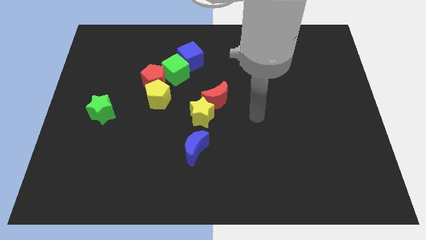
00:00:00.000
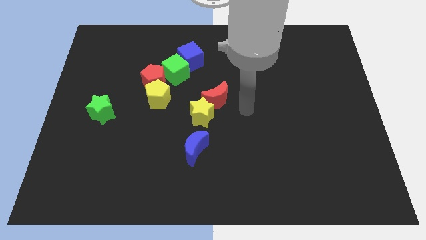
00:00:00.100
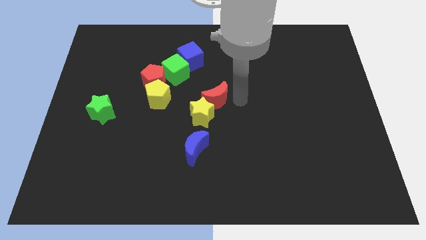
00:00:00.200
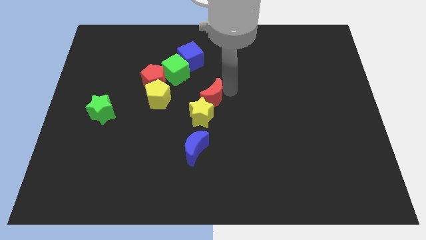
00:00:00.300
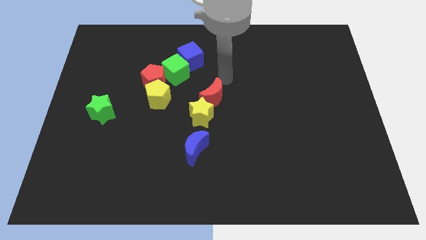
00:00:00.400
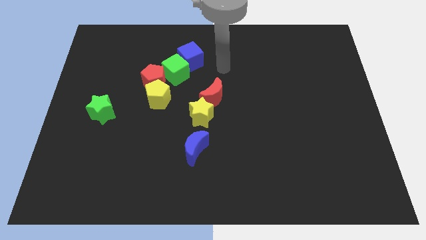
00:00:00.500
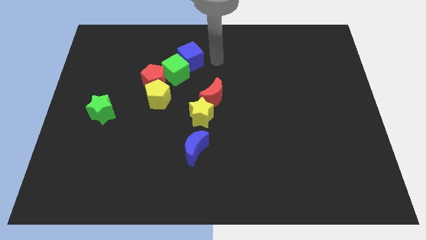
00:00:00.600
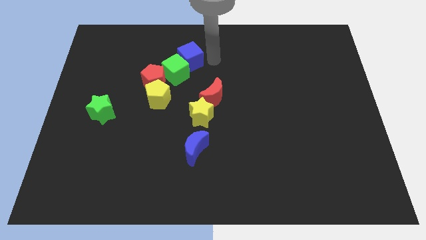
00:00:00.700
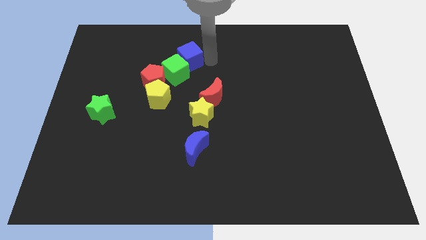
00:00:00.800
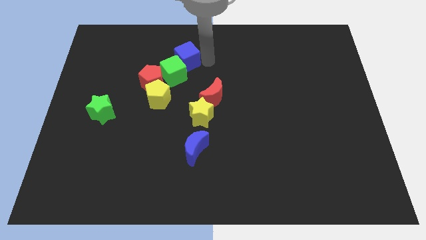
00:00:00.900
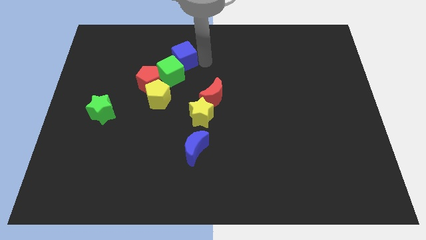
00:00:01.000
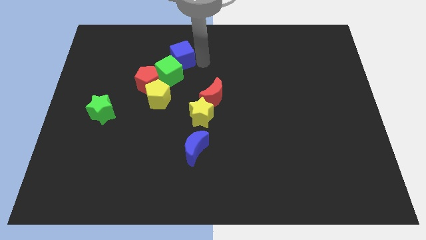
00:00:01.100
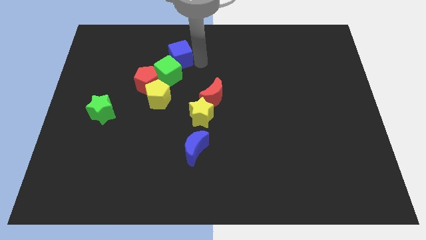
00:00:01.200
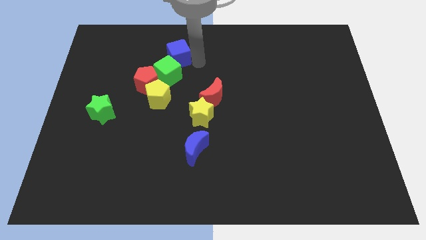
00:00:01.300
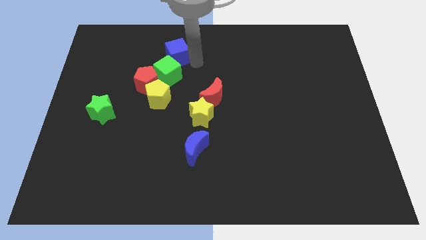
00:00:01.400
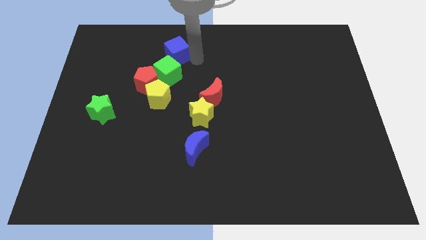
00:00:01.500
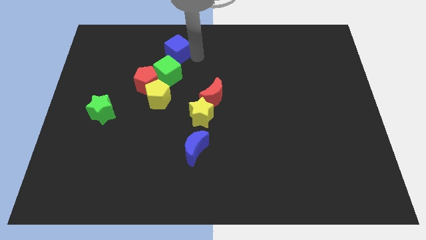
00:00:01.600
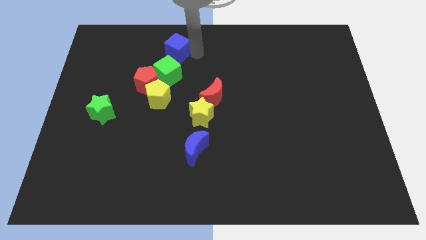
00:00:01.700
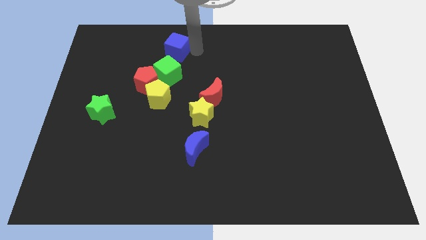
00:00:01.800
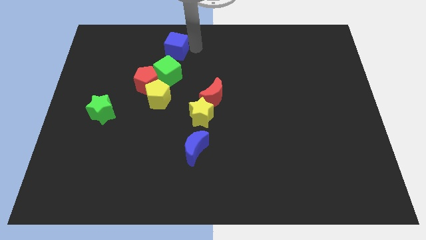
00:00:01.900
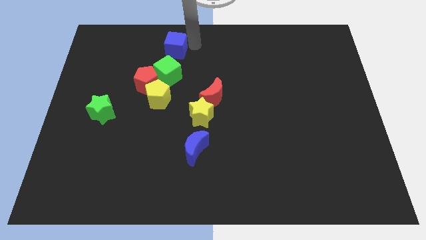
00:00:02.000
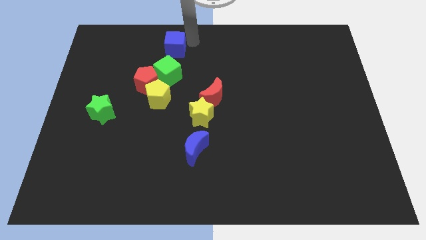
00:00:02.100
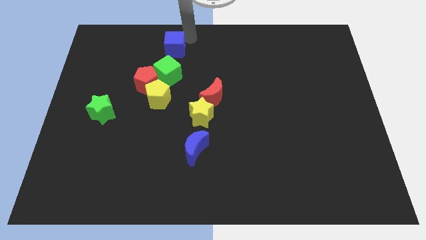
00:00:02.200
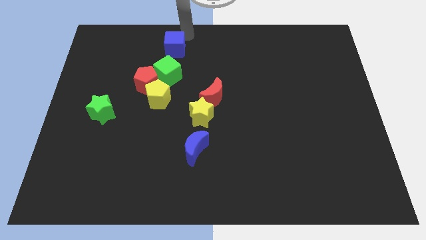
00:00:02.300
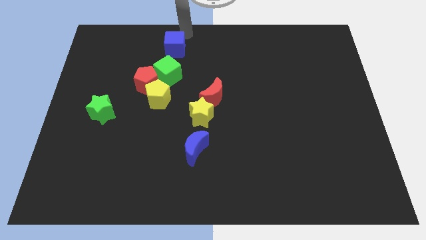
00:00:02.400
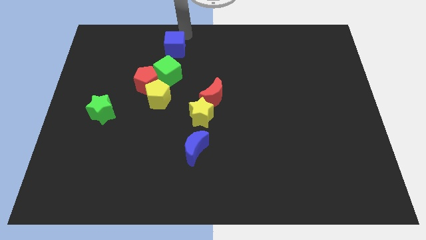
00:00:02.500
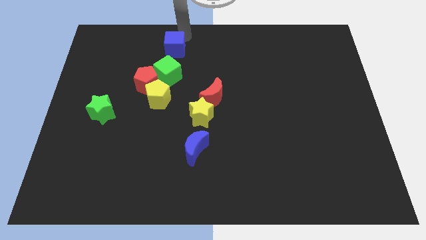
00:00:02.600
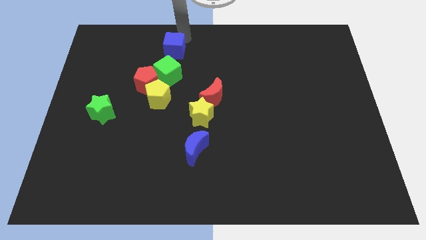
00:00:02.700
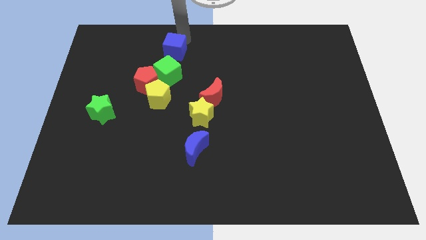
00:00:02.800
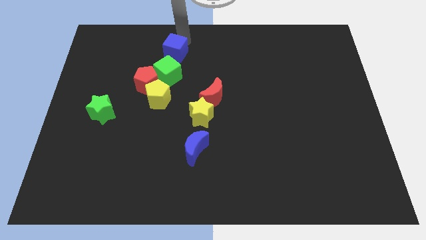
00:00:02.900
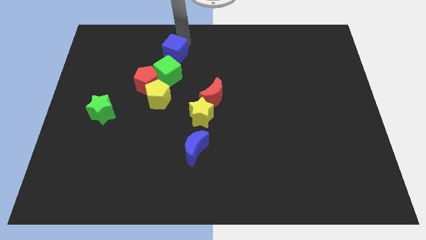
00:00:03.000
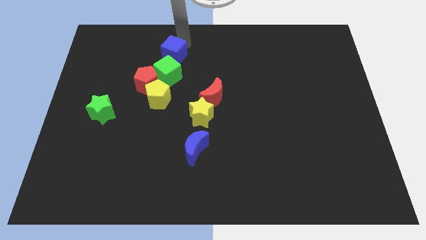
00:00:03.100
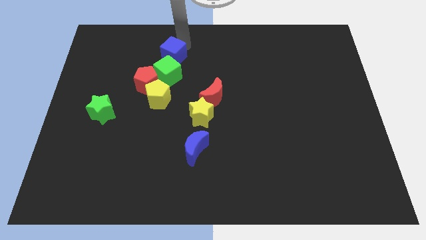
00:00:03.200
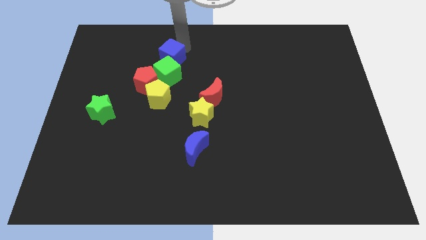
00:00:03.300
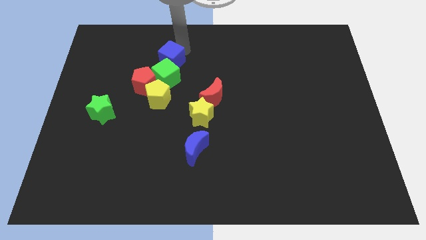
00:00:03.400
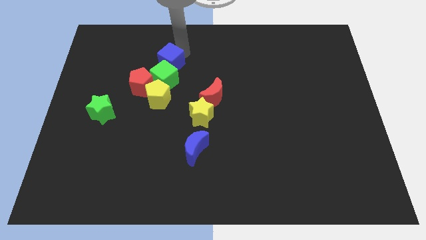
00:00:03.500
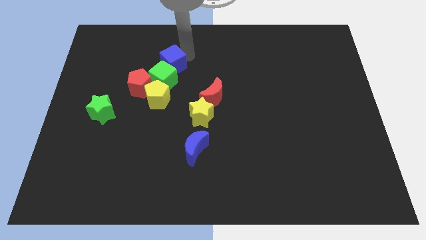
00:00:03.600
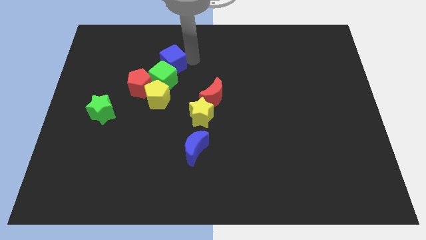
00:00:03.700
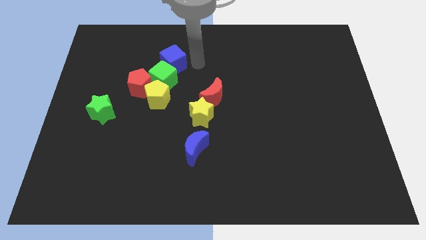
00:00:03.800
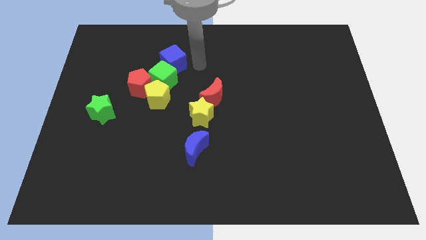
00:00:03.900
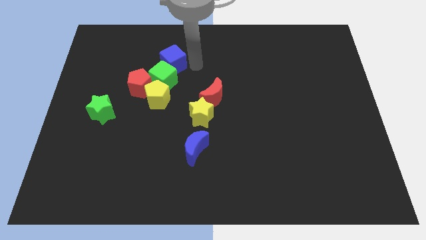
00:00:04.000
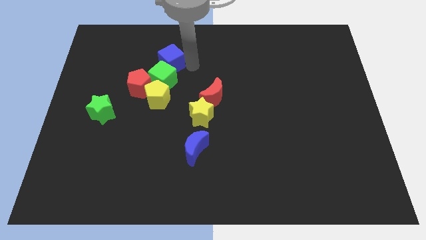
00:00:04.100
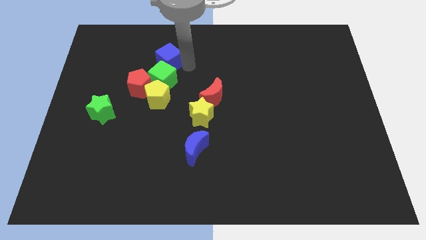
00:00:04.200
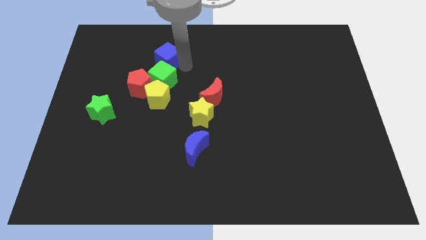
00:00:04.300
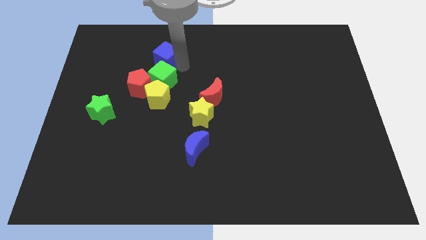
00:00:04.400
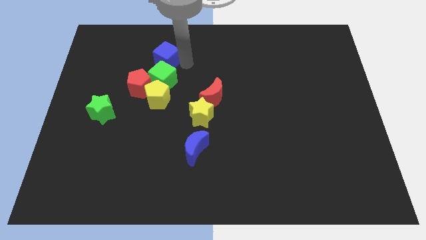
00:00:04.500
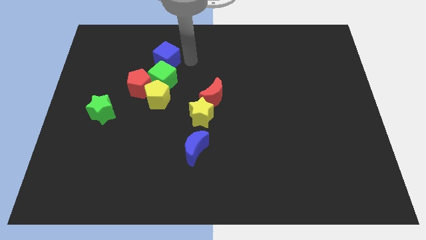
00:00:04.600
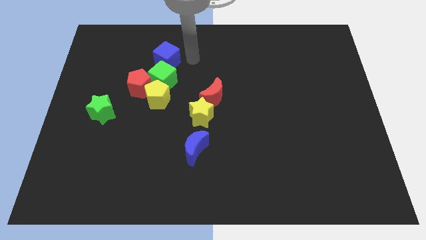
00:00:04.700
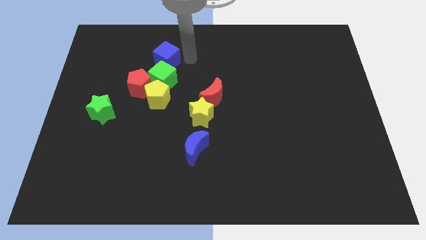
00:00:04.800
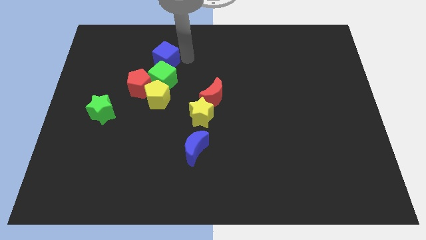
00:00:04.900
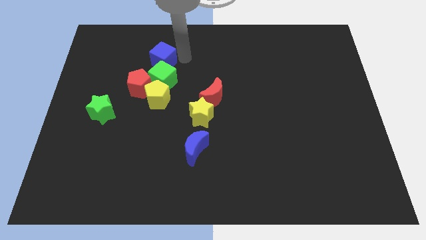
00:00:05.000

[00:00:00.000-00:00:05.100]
slightly slide the blue cube to the left

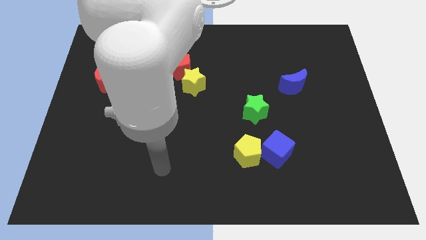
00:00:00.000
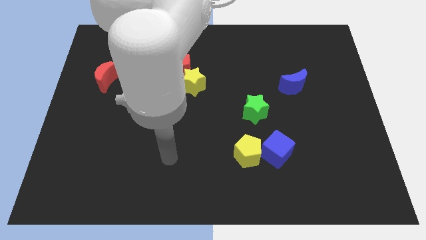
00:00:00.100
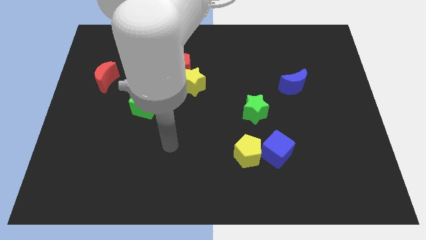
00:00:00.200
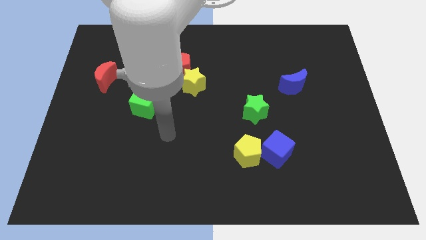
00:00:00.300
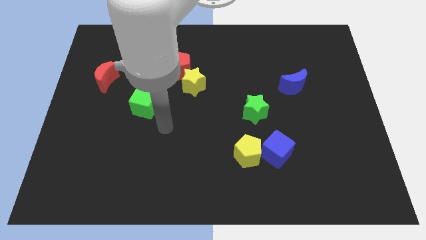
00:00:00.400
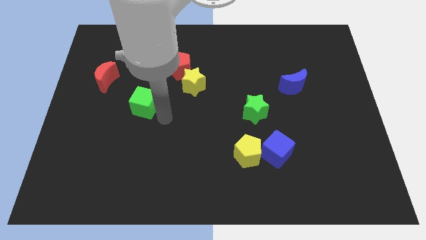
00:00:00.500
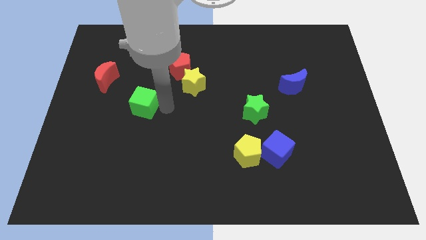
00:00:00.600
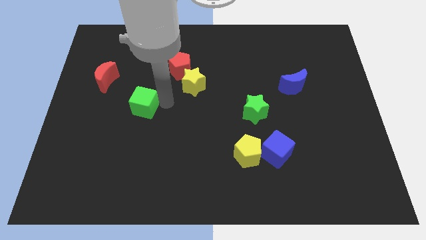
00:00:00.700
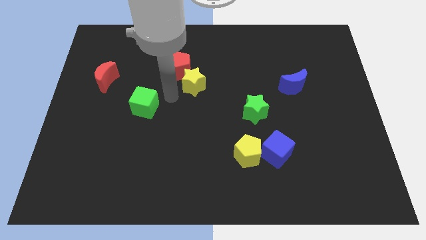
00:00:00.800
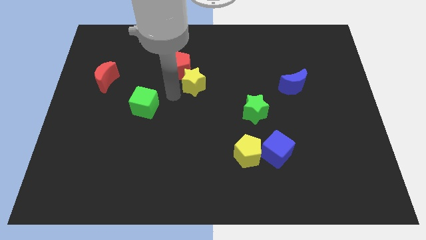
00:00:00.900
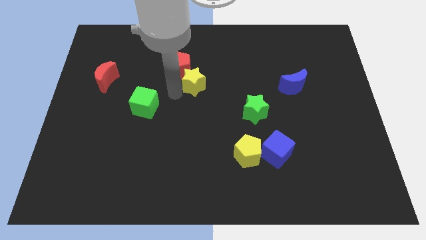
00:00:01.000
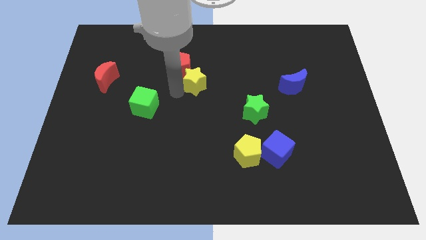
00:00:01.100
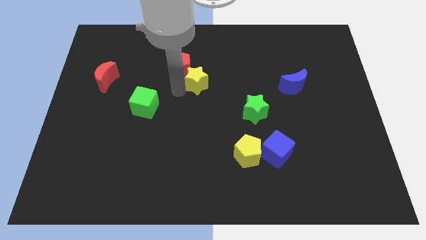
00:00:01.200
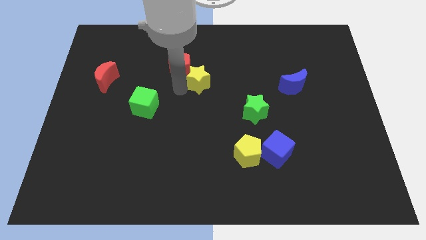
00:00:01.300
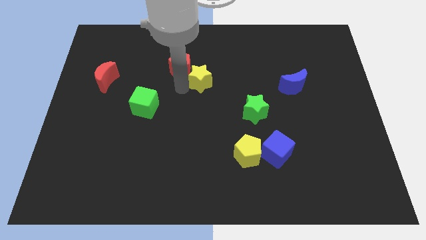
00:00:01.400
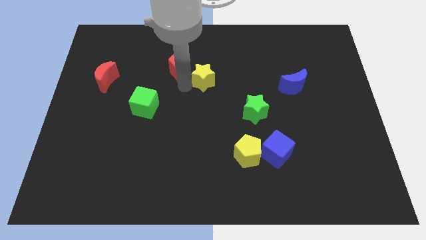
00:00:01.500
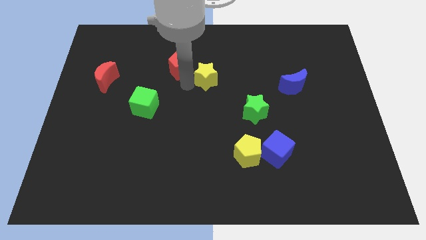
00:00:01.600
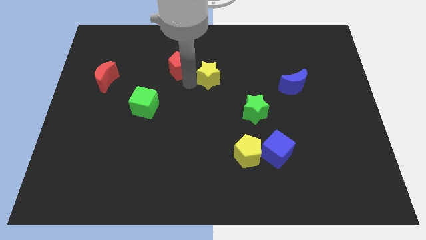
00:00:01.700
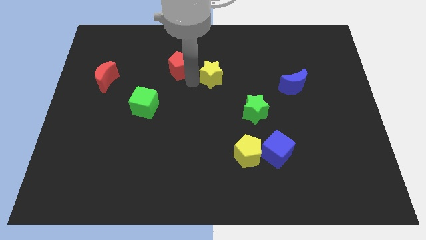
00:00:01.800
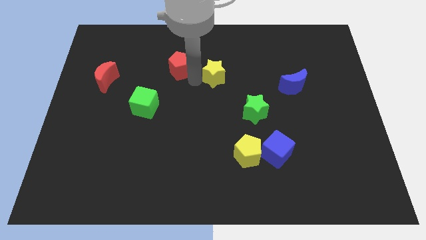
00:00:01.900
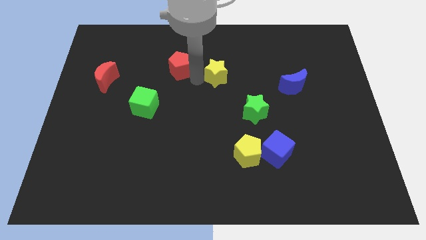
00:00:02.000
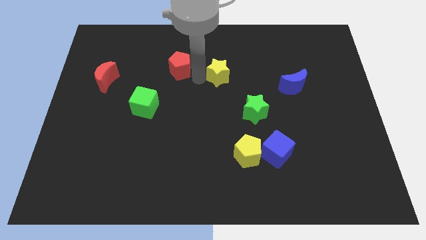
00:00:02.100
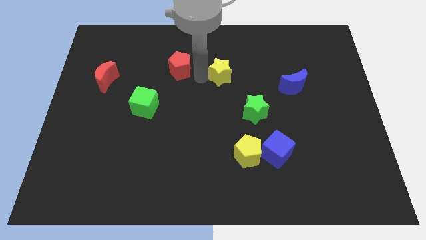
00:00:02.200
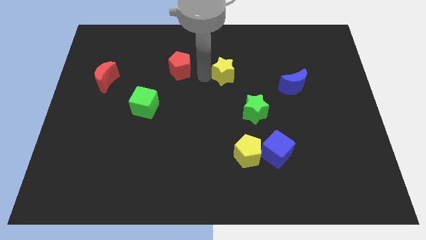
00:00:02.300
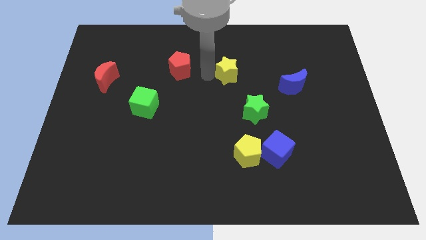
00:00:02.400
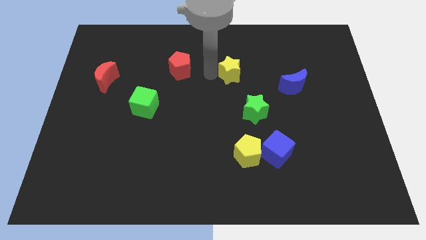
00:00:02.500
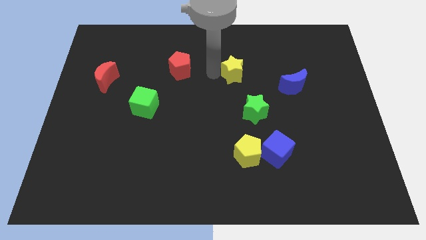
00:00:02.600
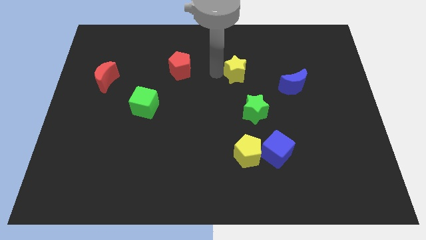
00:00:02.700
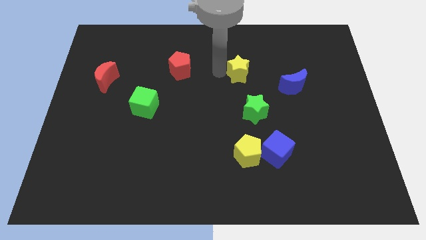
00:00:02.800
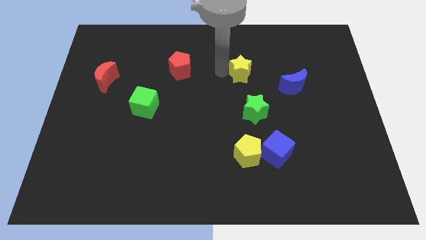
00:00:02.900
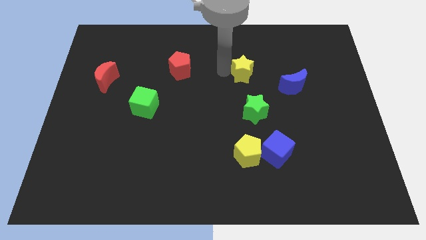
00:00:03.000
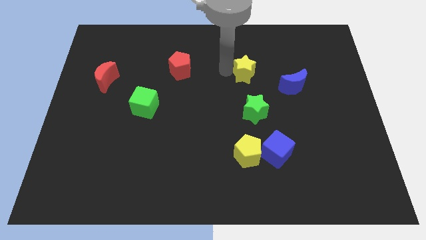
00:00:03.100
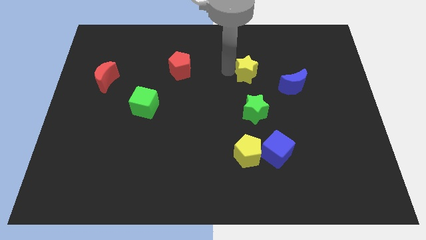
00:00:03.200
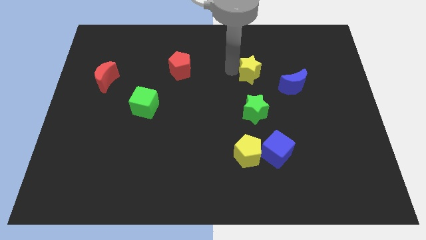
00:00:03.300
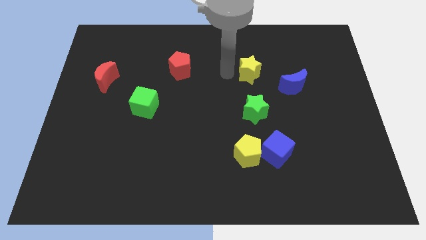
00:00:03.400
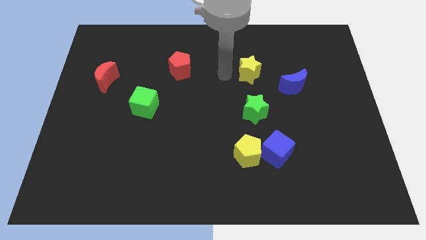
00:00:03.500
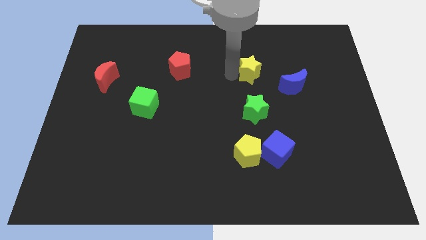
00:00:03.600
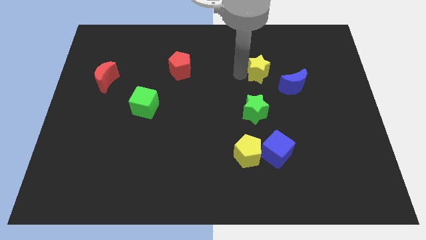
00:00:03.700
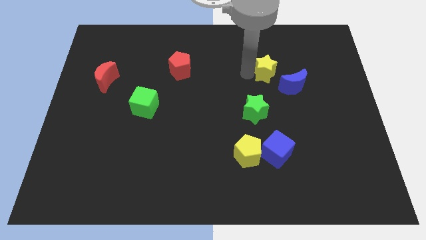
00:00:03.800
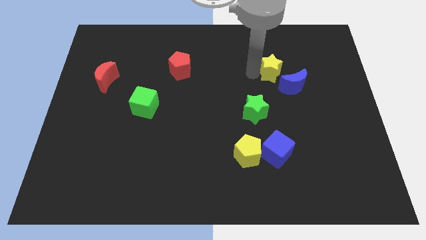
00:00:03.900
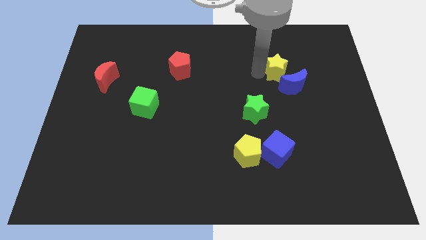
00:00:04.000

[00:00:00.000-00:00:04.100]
move the yellow star to the right
